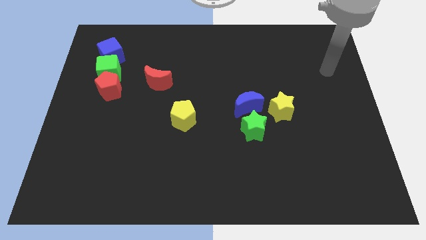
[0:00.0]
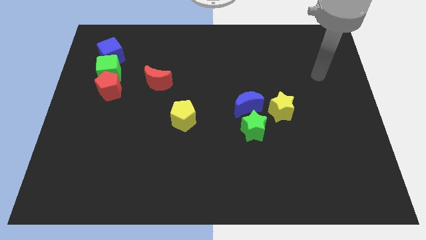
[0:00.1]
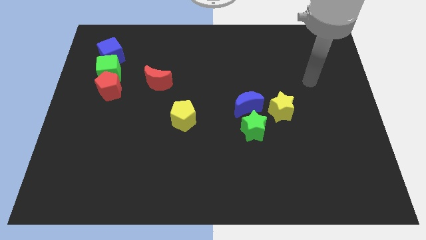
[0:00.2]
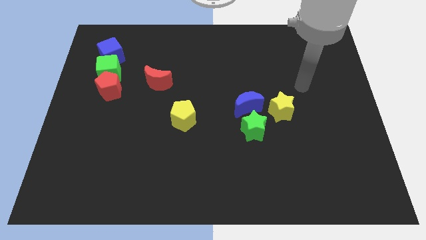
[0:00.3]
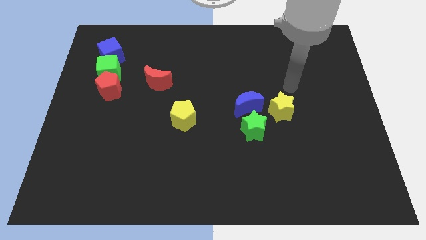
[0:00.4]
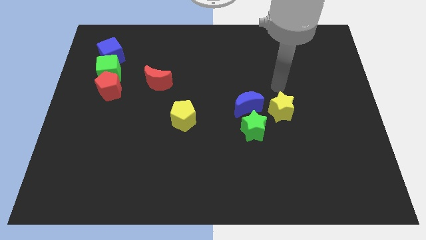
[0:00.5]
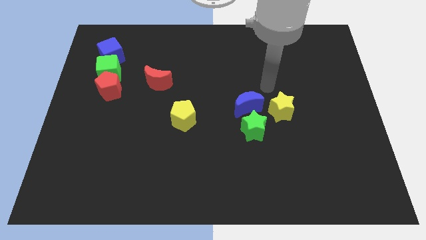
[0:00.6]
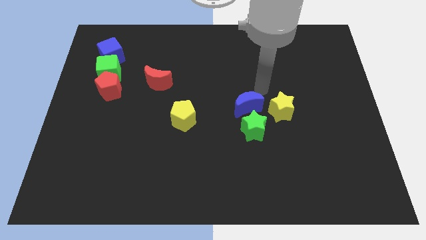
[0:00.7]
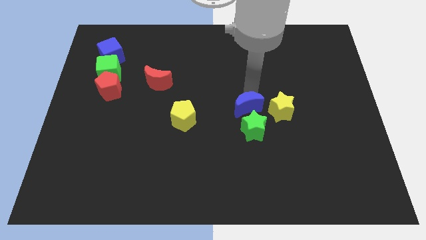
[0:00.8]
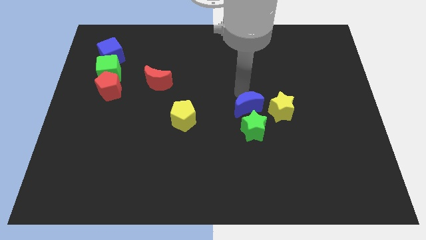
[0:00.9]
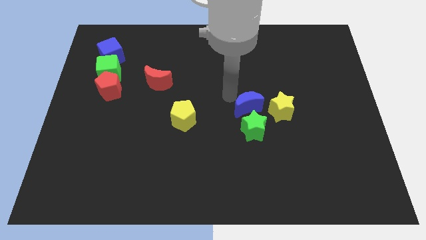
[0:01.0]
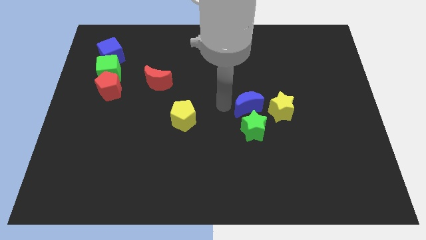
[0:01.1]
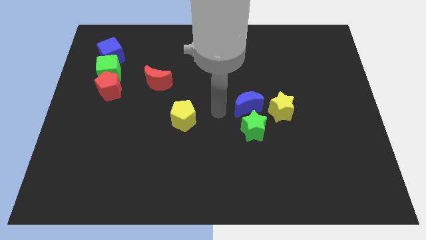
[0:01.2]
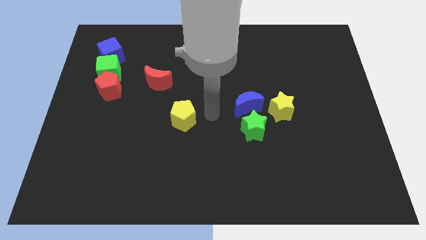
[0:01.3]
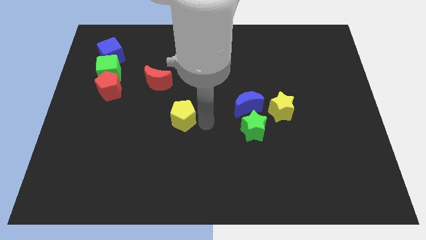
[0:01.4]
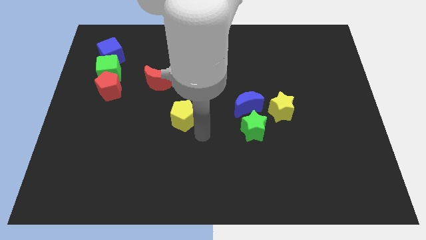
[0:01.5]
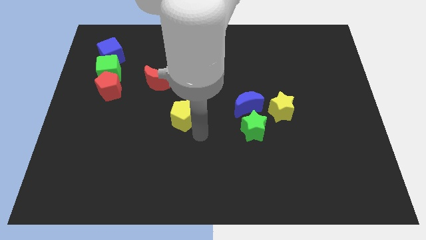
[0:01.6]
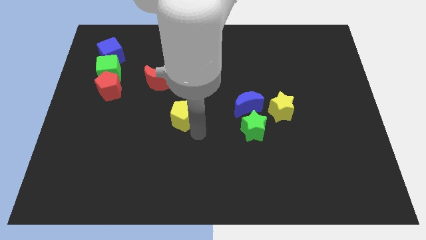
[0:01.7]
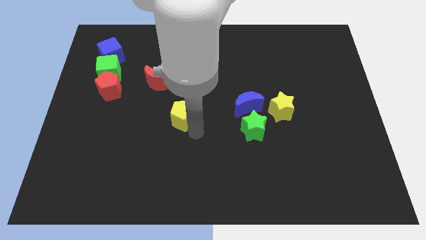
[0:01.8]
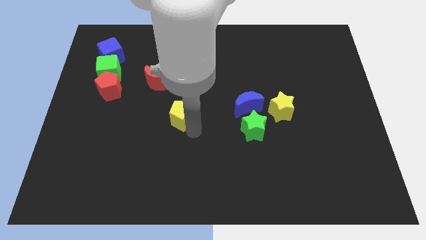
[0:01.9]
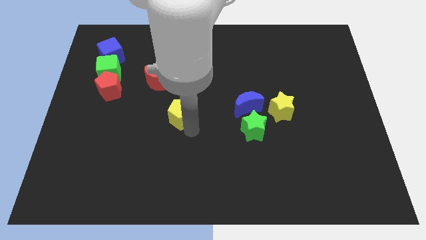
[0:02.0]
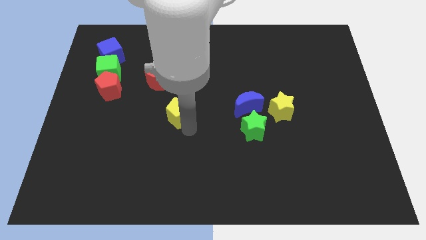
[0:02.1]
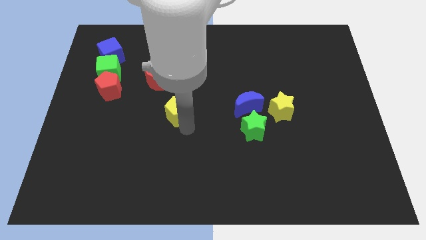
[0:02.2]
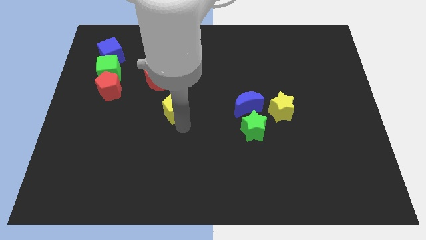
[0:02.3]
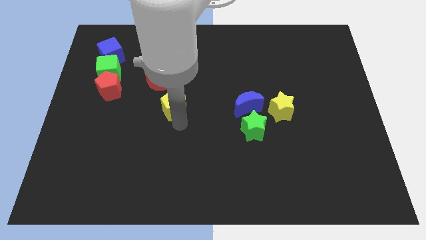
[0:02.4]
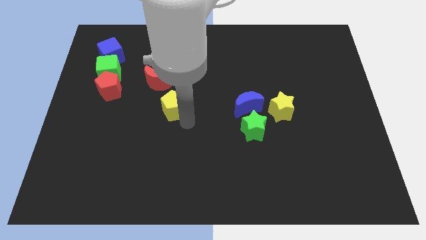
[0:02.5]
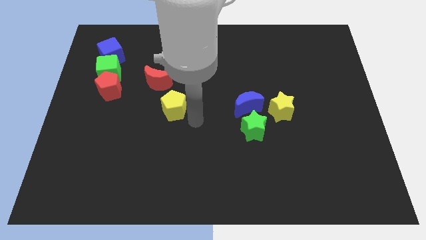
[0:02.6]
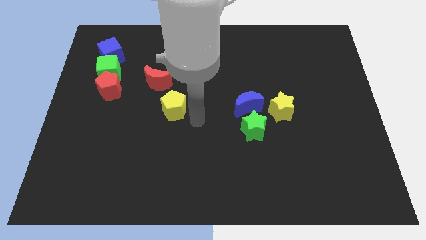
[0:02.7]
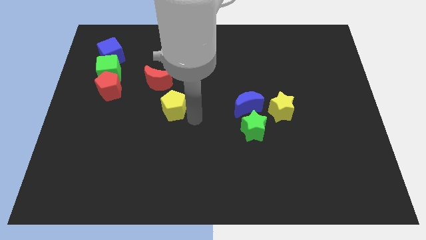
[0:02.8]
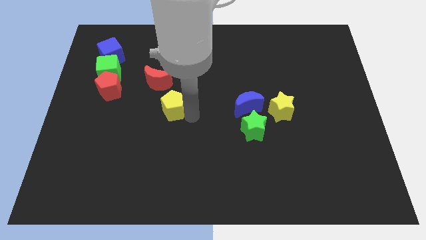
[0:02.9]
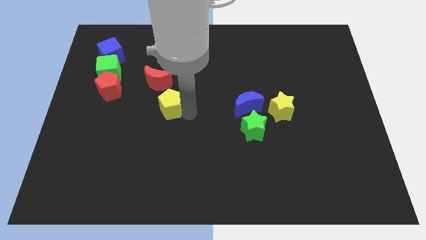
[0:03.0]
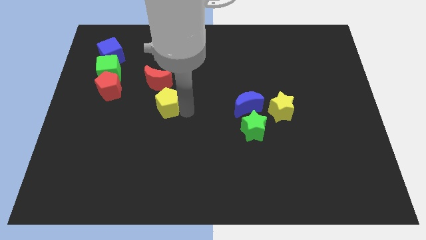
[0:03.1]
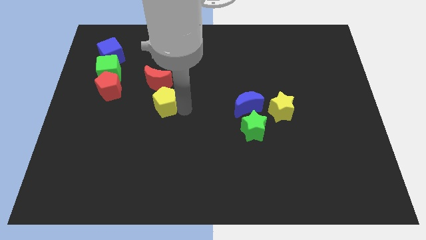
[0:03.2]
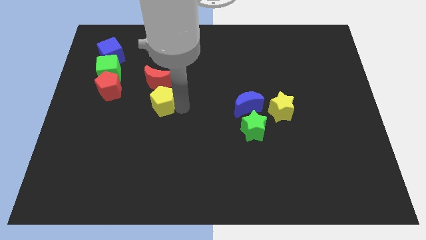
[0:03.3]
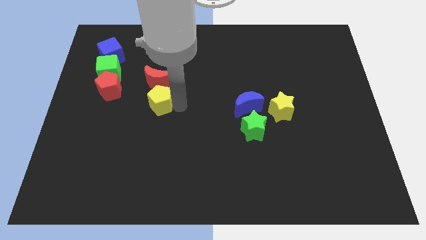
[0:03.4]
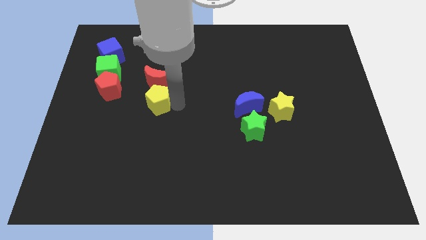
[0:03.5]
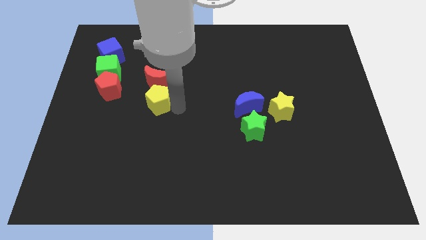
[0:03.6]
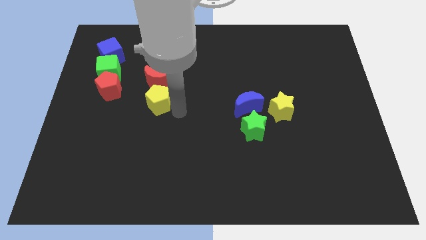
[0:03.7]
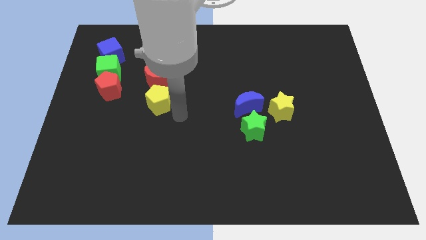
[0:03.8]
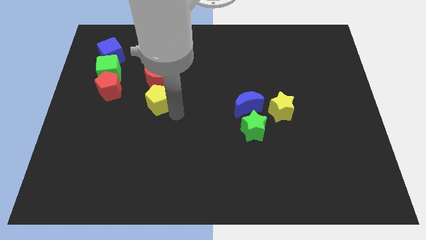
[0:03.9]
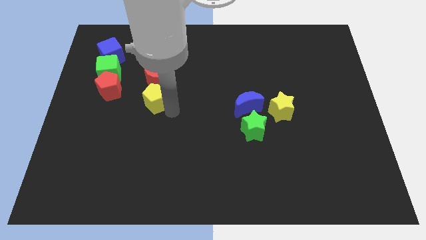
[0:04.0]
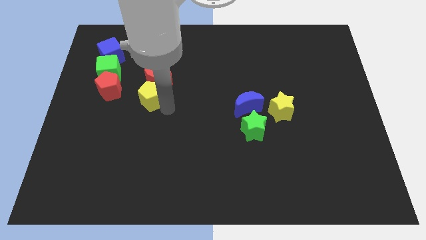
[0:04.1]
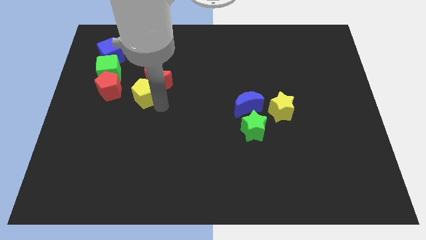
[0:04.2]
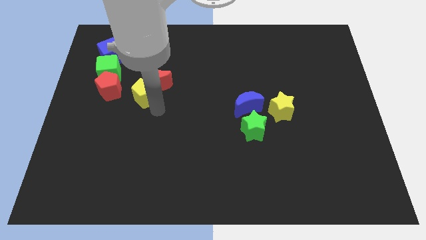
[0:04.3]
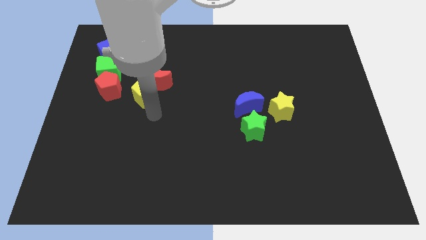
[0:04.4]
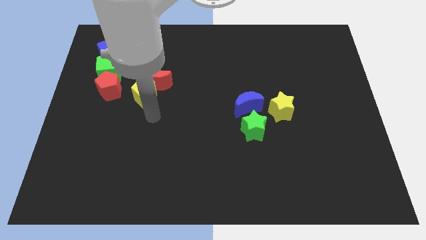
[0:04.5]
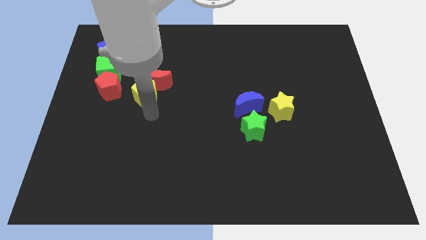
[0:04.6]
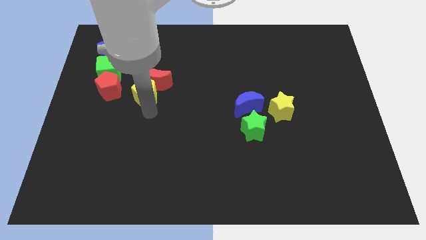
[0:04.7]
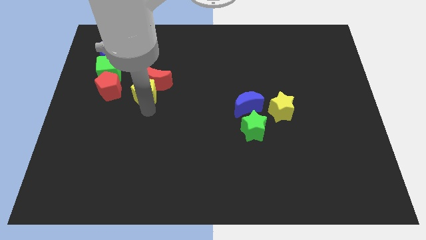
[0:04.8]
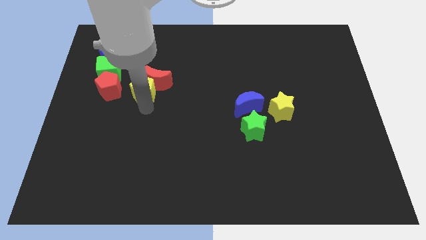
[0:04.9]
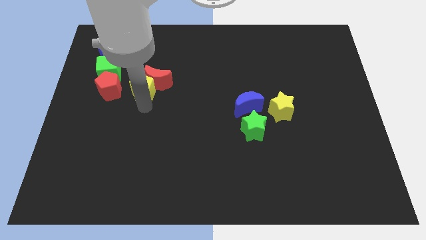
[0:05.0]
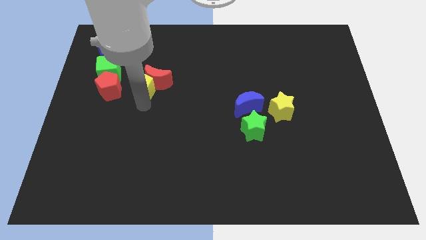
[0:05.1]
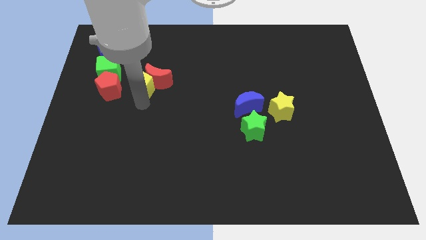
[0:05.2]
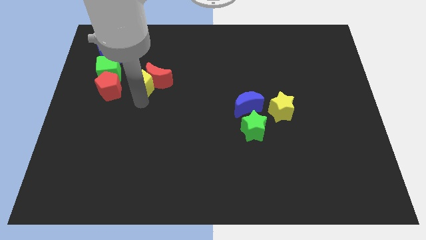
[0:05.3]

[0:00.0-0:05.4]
move the yellow pentagon to the right side of the green cube
